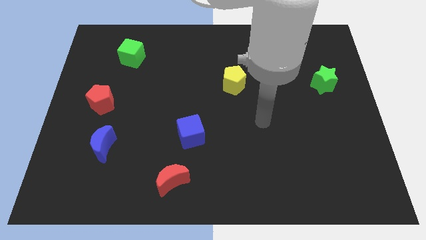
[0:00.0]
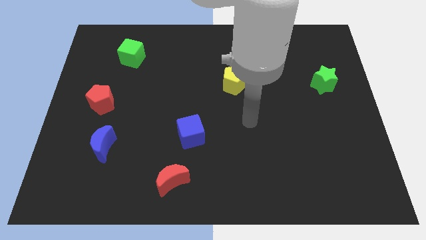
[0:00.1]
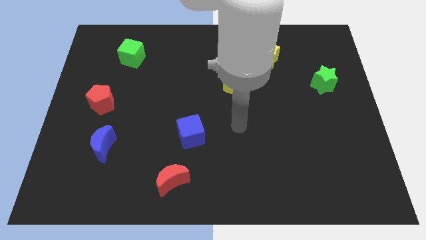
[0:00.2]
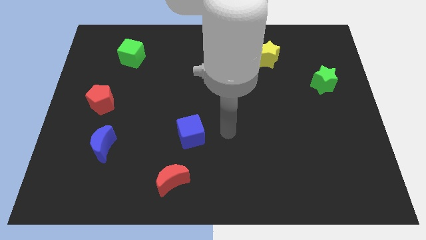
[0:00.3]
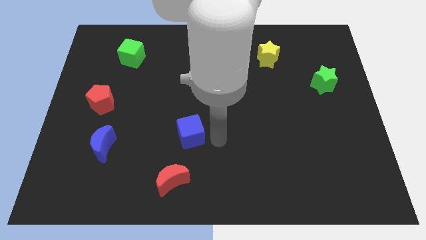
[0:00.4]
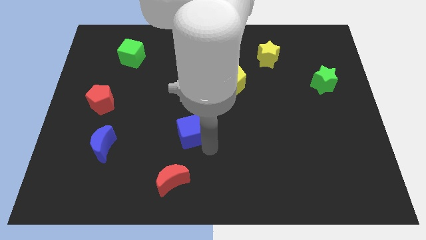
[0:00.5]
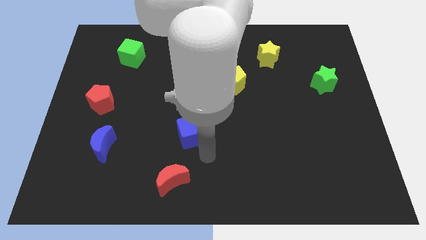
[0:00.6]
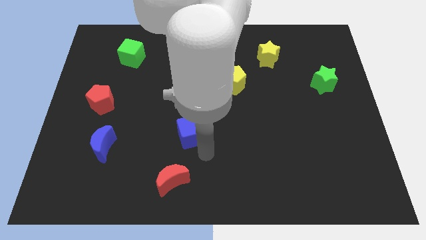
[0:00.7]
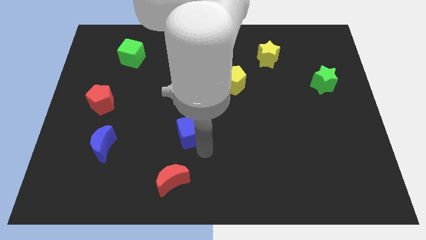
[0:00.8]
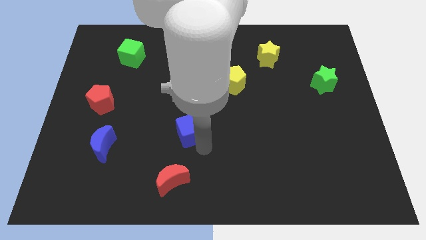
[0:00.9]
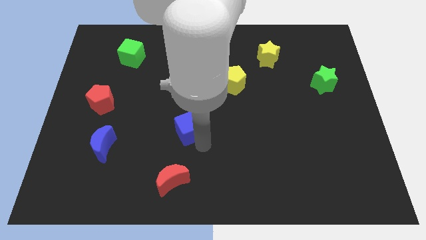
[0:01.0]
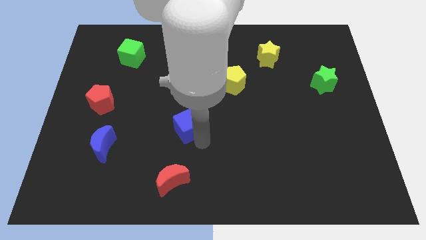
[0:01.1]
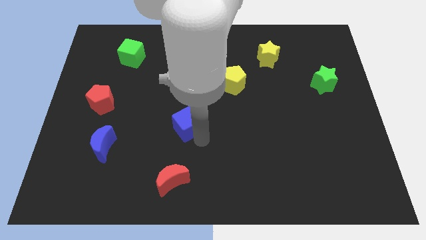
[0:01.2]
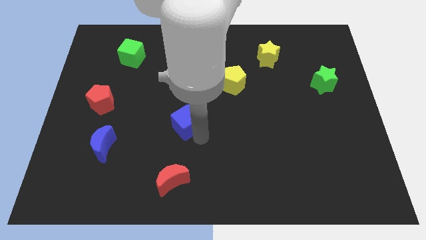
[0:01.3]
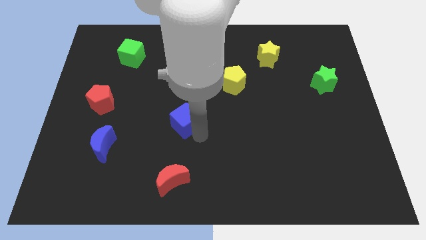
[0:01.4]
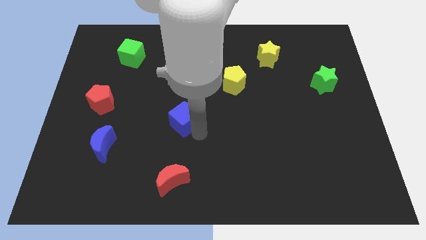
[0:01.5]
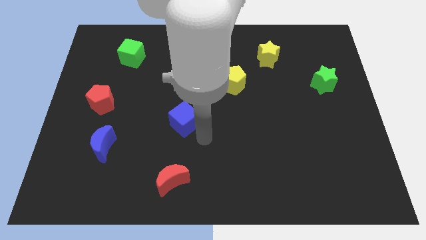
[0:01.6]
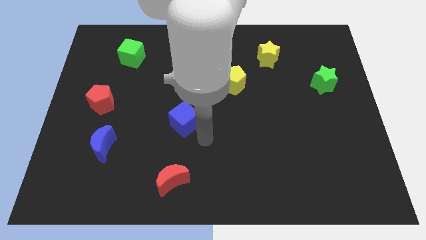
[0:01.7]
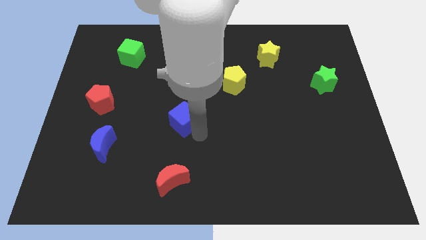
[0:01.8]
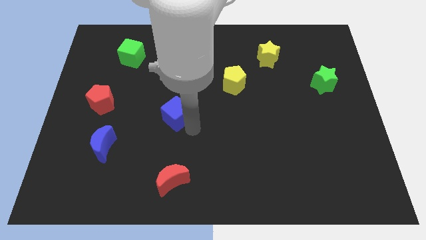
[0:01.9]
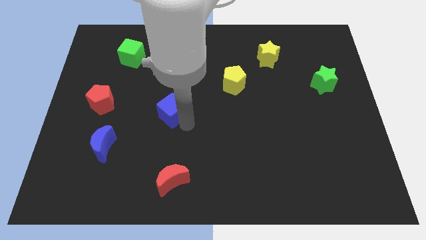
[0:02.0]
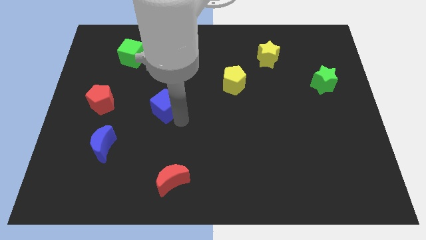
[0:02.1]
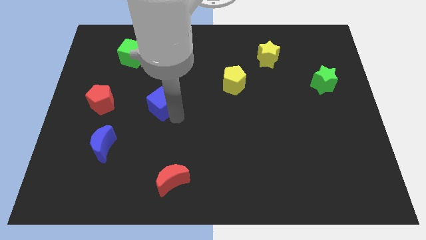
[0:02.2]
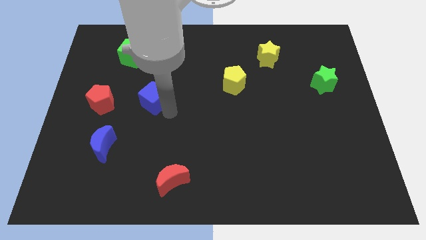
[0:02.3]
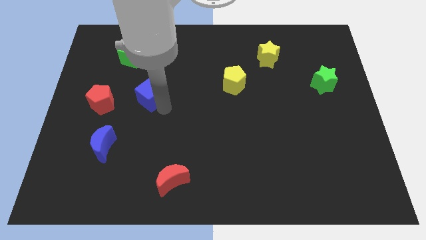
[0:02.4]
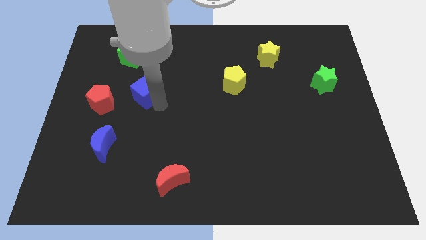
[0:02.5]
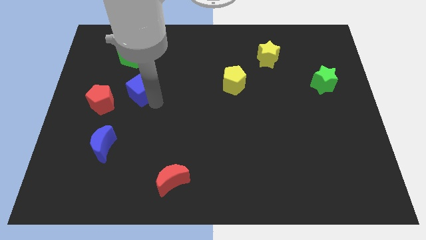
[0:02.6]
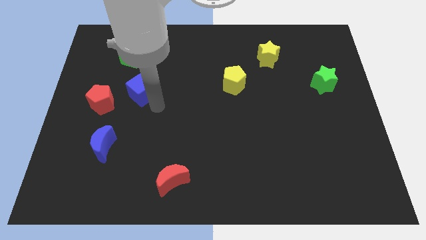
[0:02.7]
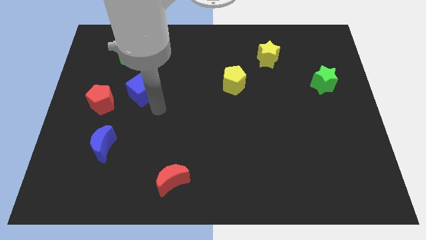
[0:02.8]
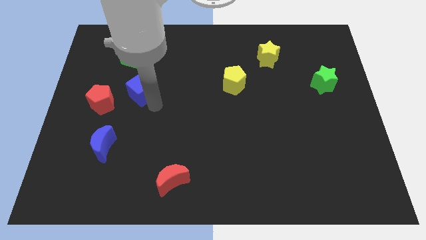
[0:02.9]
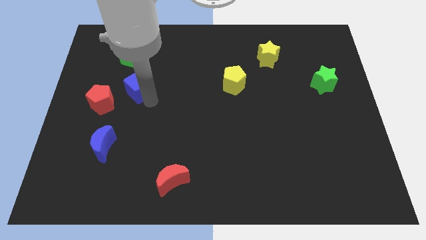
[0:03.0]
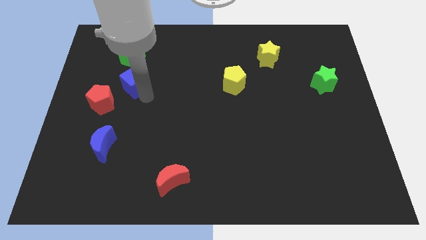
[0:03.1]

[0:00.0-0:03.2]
move the blue cube up and left diagonally

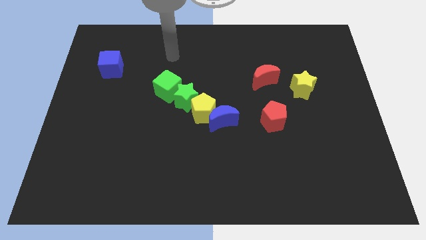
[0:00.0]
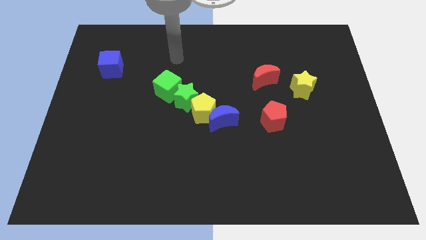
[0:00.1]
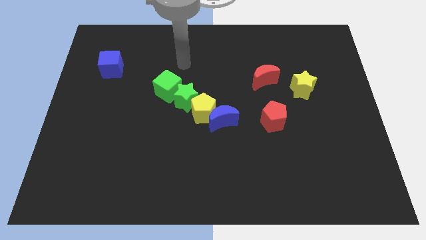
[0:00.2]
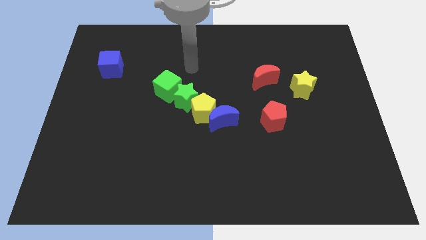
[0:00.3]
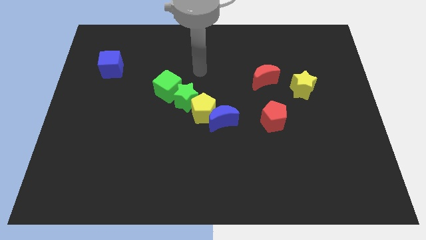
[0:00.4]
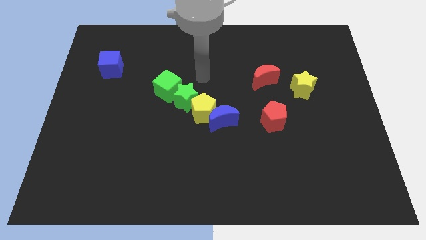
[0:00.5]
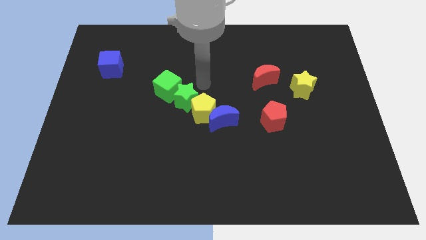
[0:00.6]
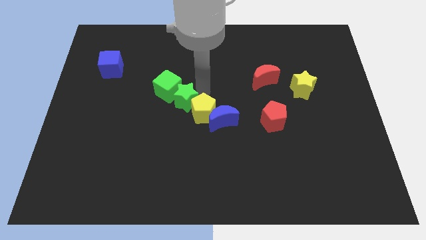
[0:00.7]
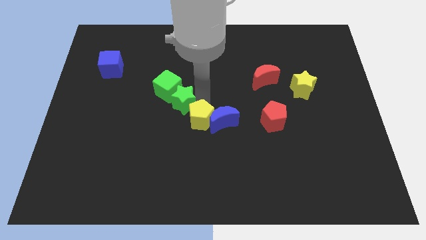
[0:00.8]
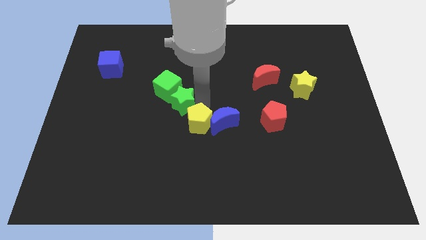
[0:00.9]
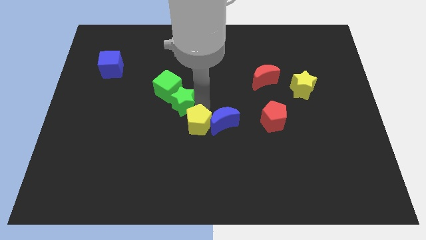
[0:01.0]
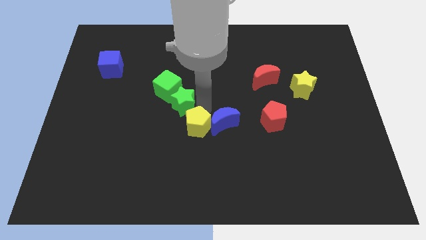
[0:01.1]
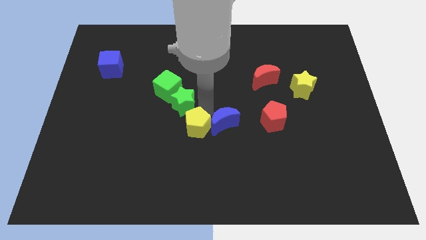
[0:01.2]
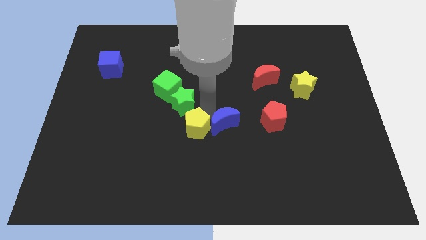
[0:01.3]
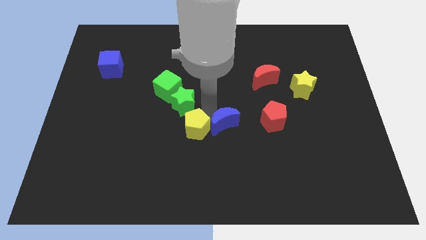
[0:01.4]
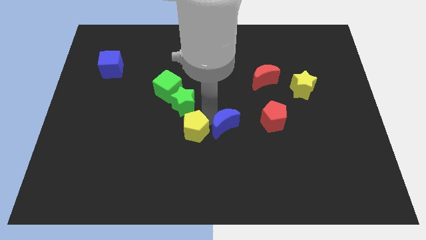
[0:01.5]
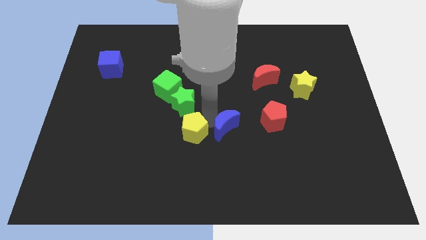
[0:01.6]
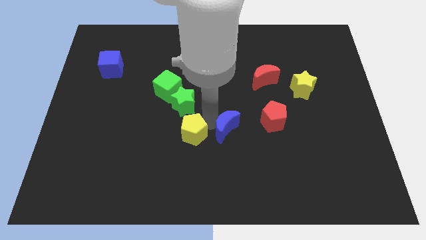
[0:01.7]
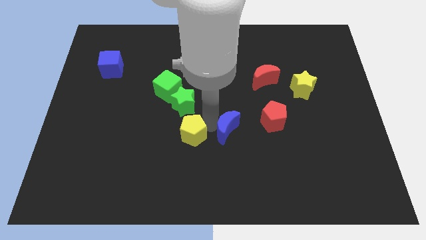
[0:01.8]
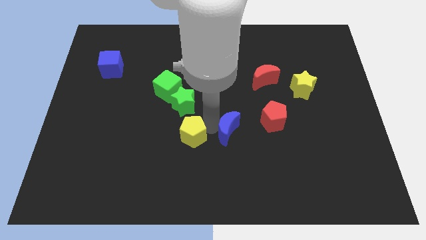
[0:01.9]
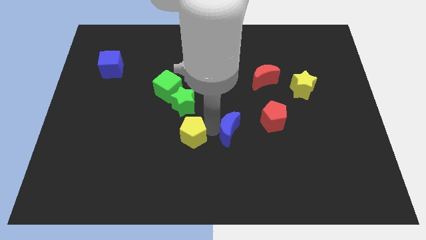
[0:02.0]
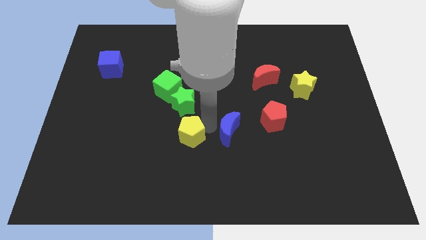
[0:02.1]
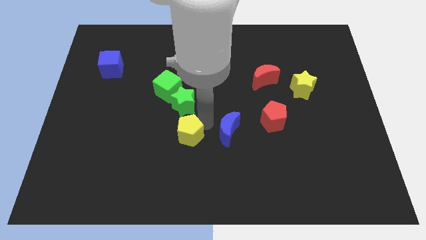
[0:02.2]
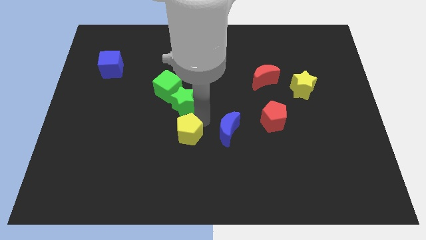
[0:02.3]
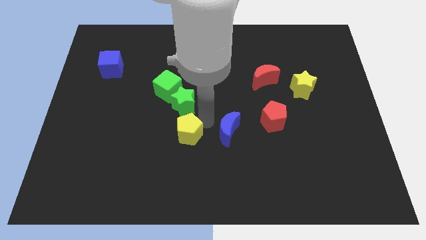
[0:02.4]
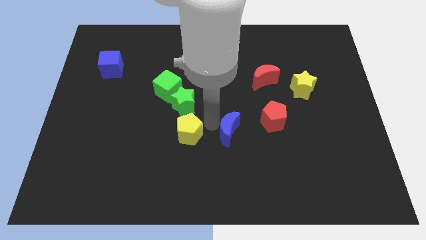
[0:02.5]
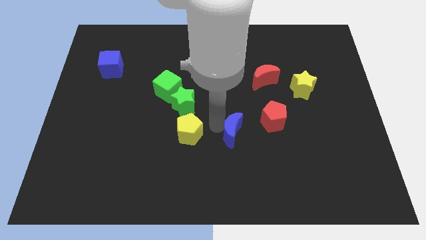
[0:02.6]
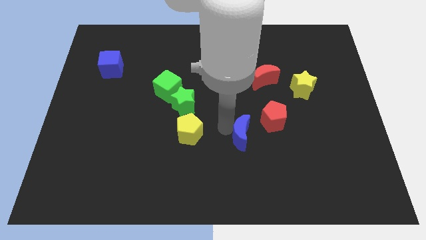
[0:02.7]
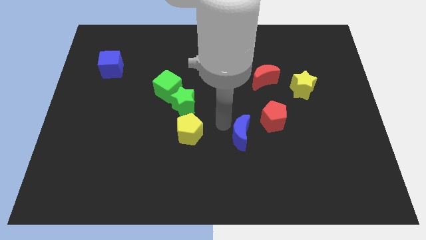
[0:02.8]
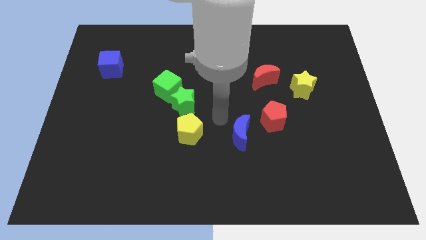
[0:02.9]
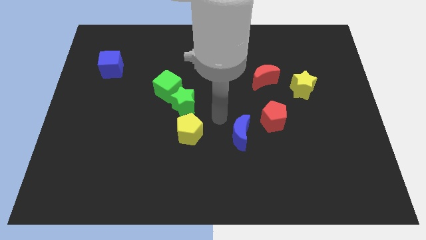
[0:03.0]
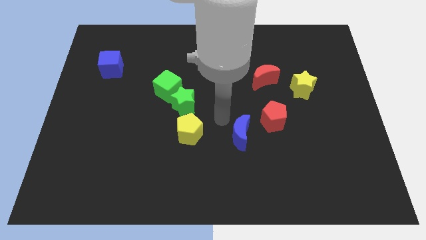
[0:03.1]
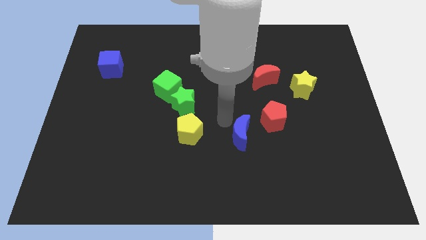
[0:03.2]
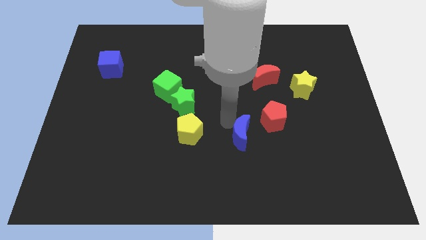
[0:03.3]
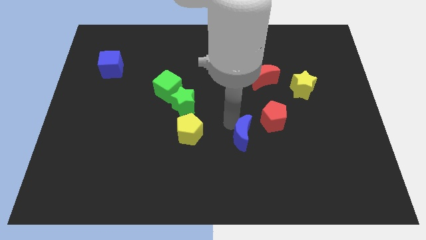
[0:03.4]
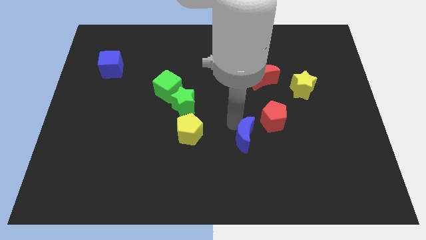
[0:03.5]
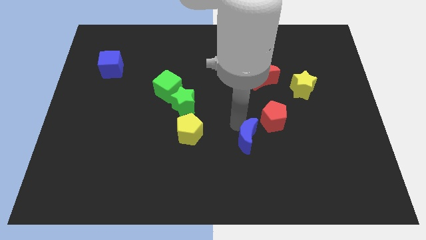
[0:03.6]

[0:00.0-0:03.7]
push the blue moon slightly downwards and right diagonally

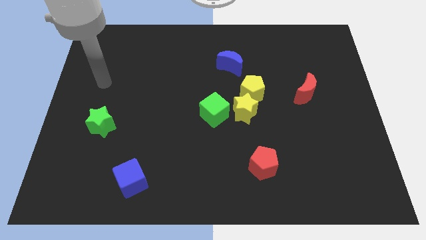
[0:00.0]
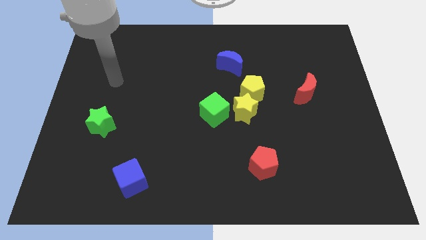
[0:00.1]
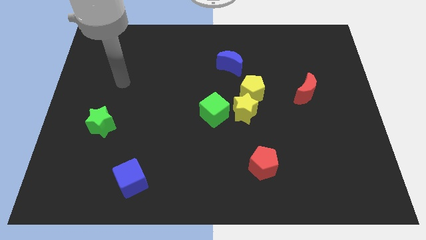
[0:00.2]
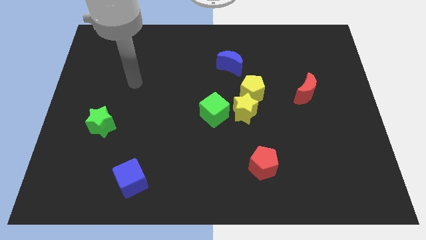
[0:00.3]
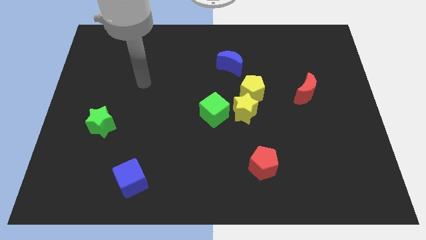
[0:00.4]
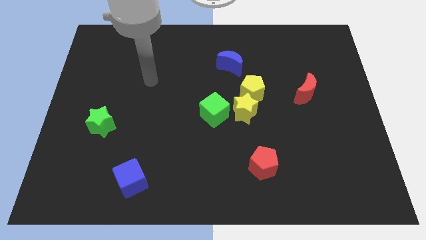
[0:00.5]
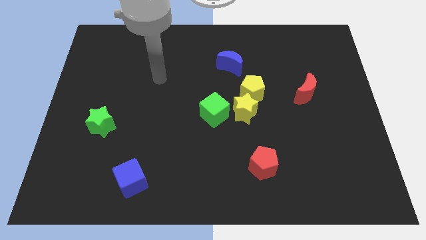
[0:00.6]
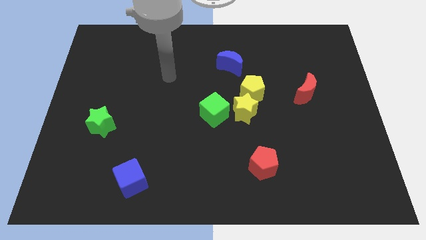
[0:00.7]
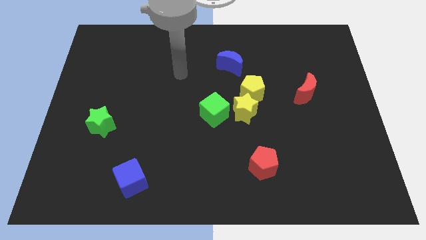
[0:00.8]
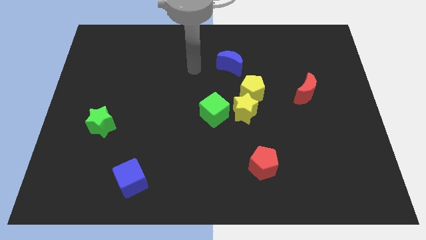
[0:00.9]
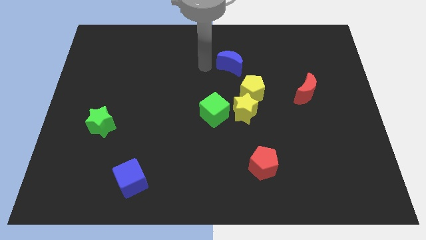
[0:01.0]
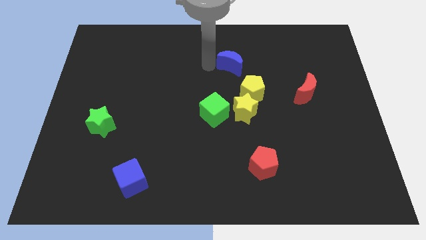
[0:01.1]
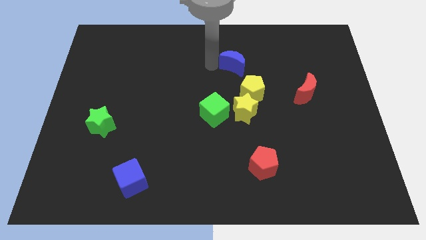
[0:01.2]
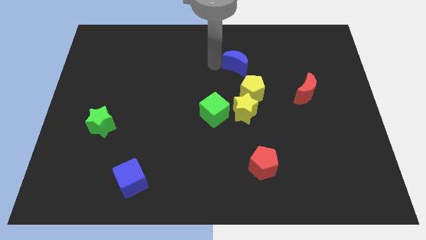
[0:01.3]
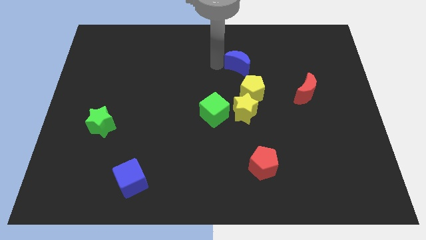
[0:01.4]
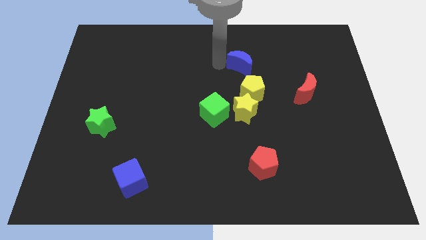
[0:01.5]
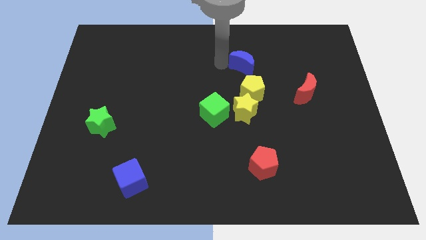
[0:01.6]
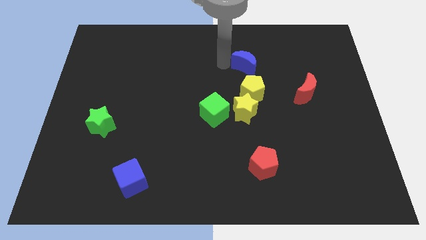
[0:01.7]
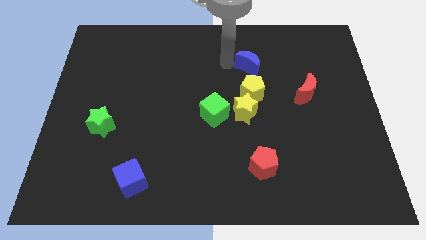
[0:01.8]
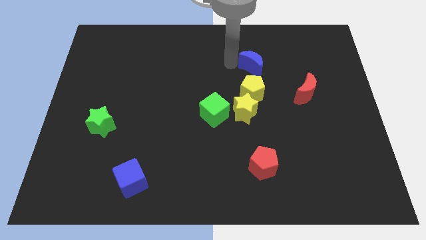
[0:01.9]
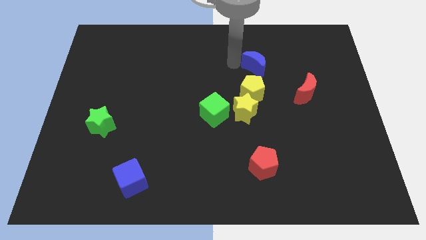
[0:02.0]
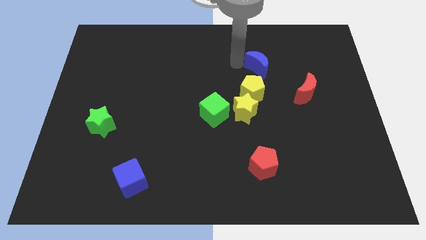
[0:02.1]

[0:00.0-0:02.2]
push the blue moon right a little
